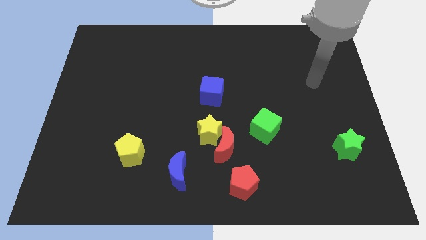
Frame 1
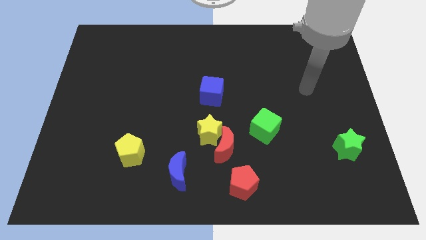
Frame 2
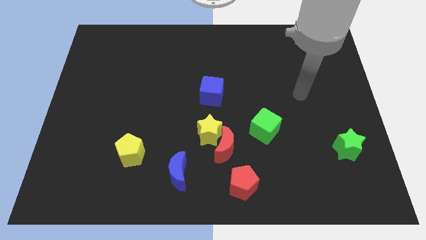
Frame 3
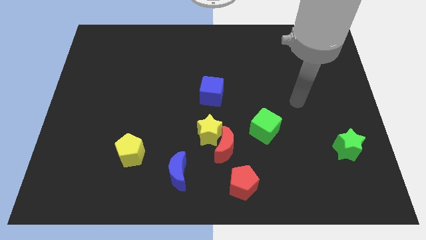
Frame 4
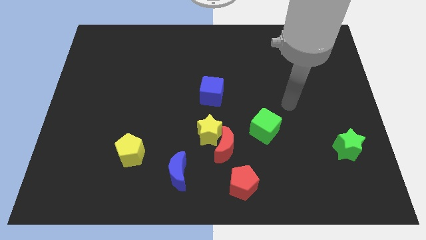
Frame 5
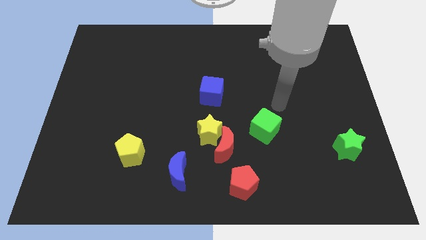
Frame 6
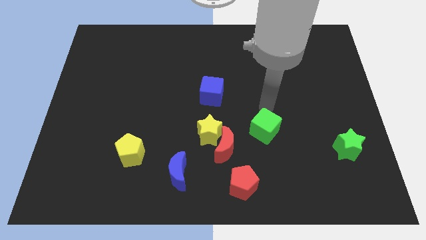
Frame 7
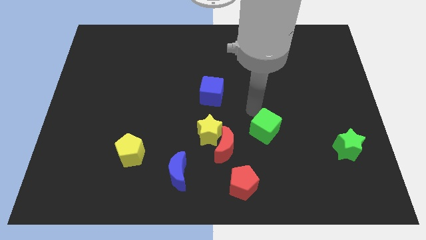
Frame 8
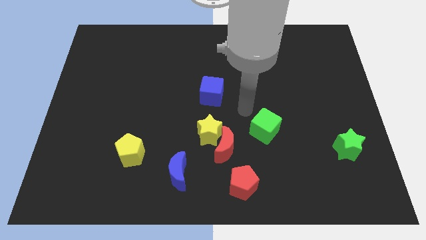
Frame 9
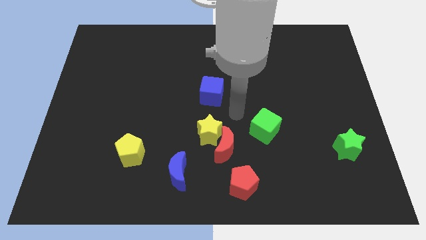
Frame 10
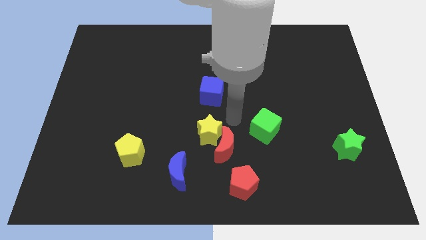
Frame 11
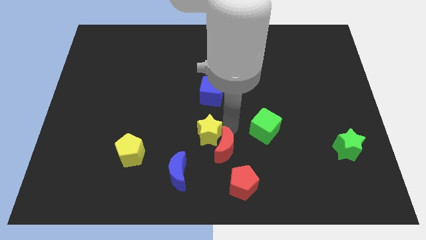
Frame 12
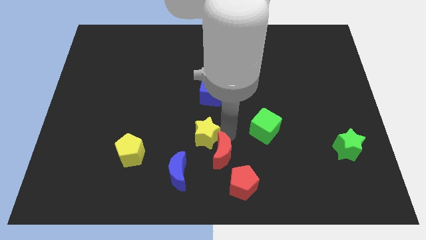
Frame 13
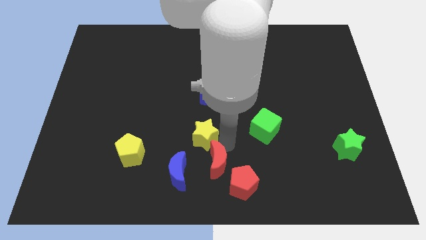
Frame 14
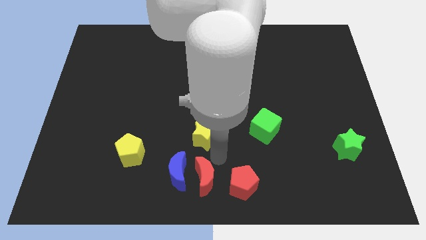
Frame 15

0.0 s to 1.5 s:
separate the yellow star from the red moon

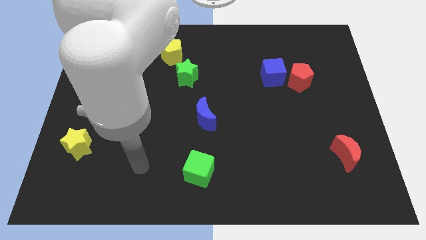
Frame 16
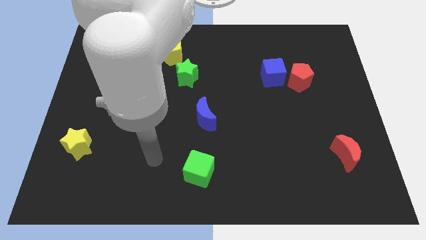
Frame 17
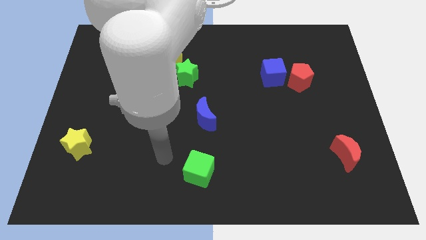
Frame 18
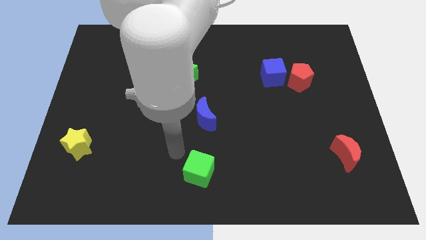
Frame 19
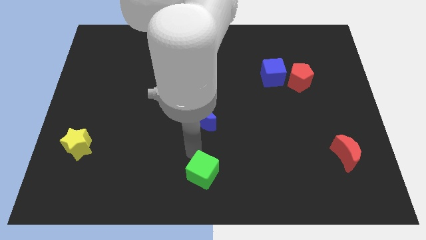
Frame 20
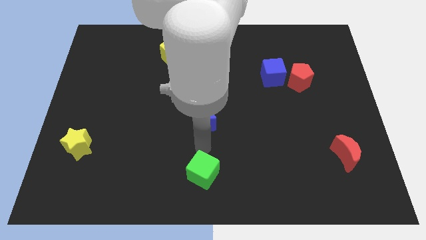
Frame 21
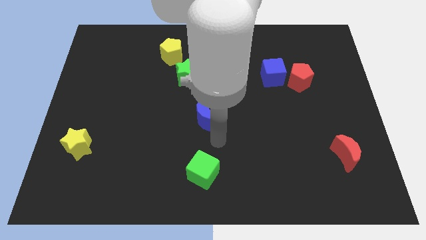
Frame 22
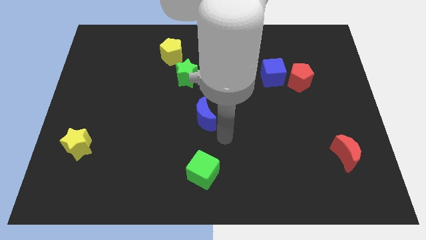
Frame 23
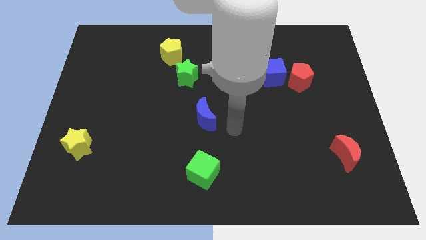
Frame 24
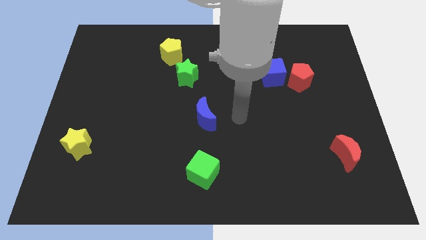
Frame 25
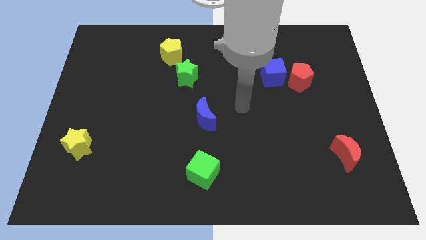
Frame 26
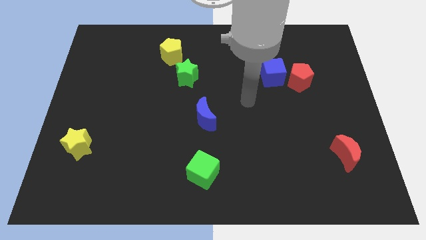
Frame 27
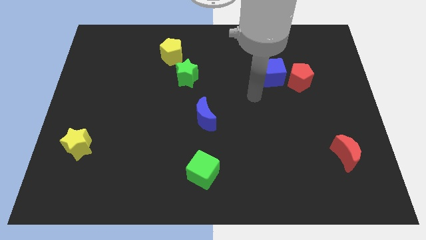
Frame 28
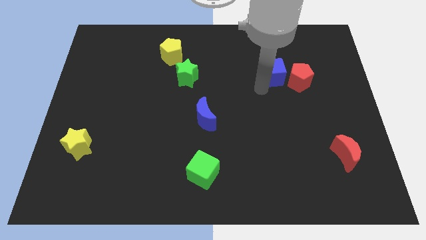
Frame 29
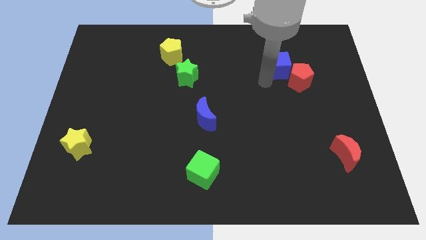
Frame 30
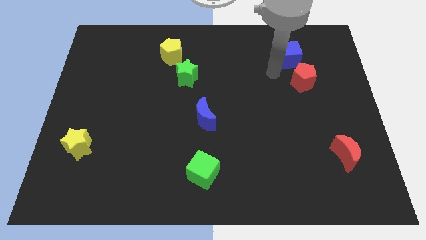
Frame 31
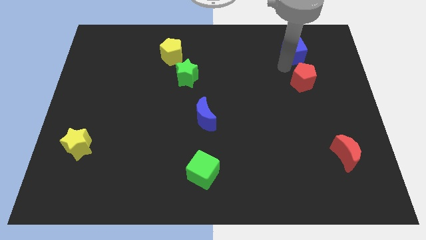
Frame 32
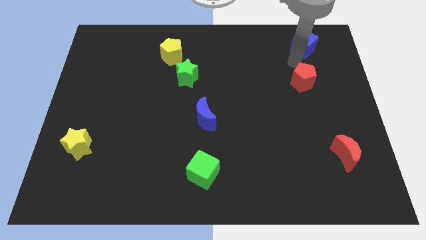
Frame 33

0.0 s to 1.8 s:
pull the red pentagon apart from the blue cube

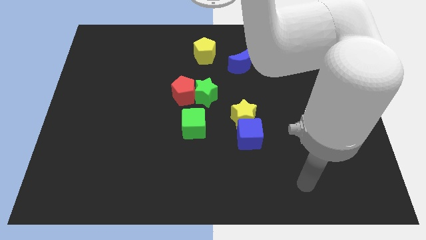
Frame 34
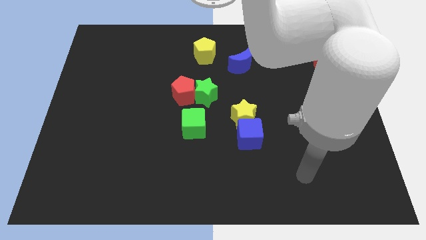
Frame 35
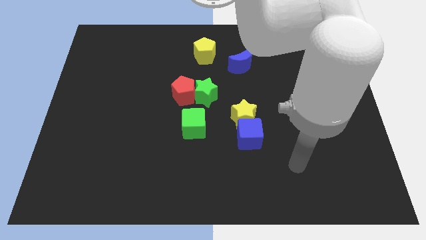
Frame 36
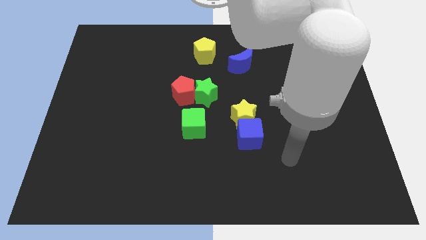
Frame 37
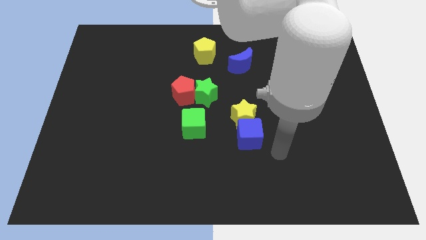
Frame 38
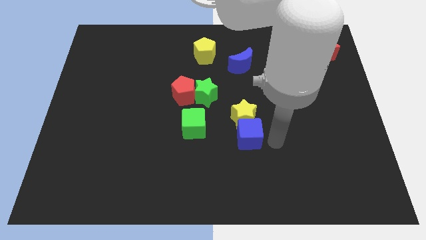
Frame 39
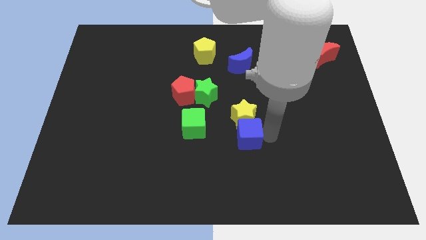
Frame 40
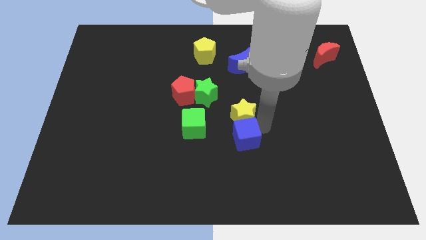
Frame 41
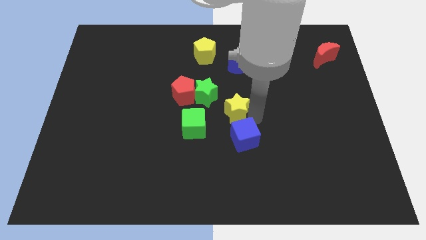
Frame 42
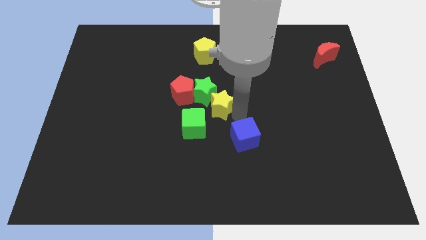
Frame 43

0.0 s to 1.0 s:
pull the blue cube apart from the yellow star

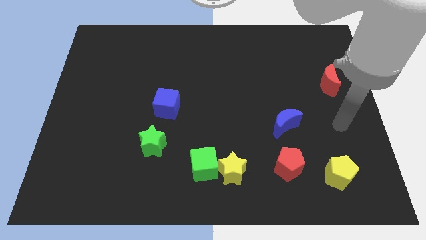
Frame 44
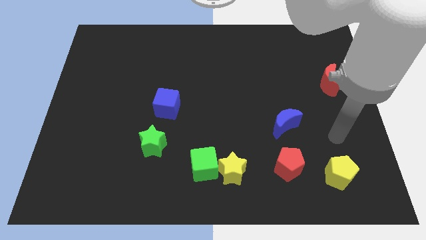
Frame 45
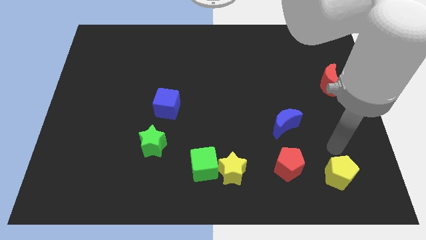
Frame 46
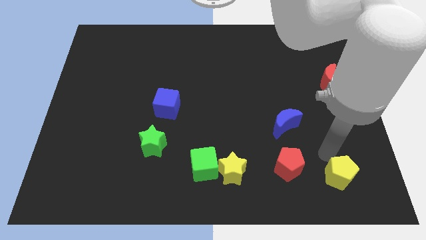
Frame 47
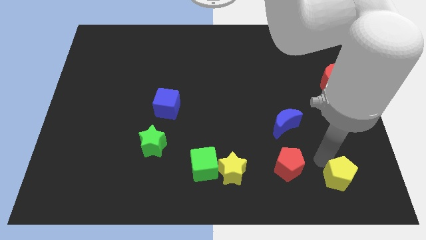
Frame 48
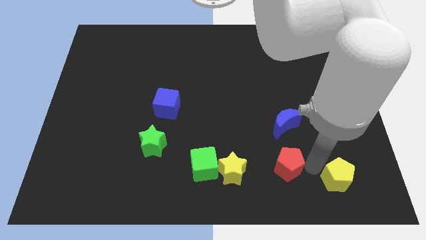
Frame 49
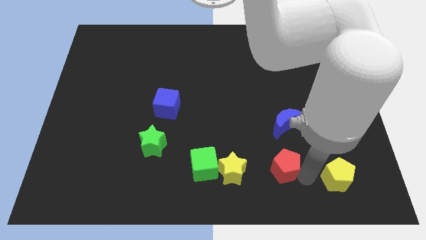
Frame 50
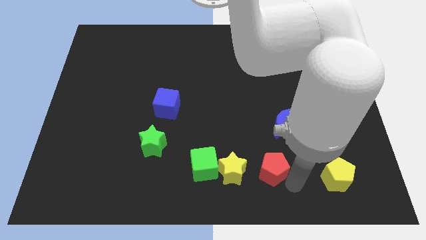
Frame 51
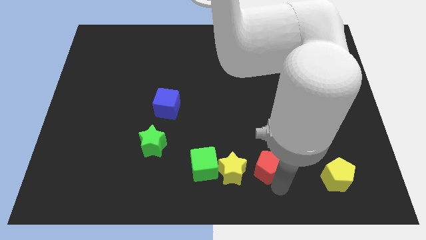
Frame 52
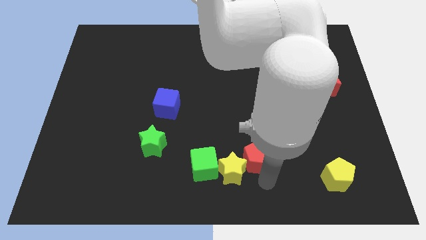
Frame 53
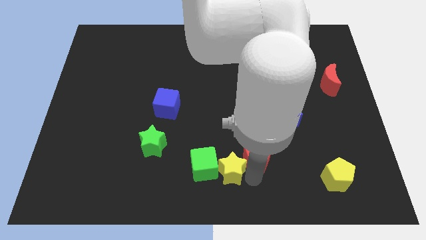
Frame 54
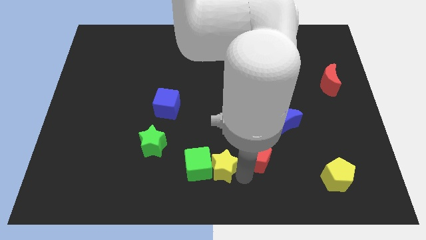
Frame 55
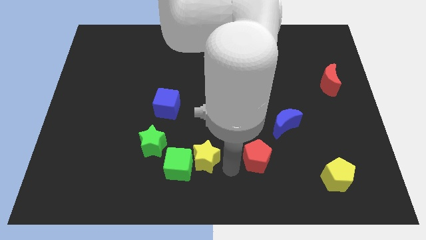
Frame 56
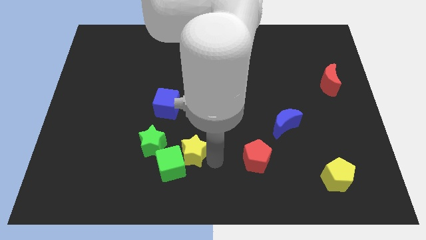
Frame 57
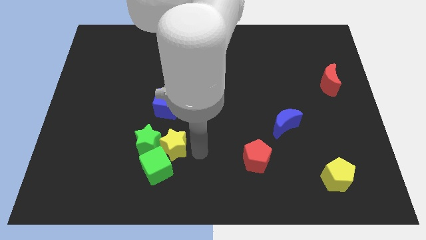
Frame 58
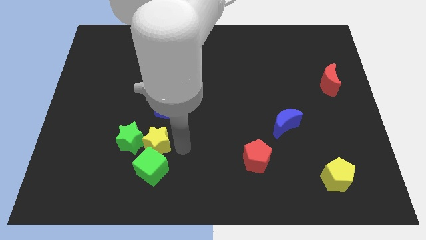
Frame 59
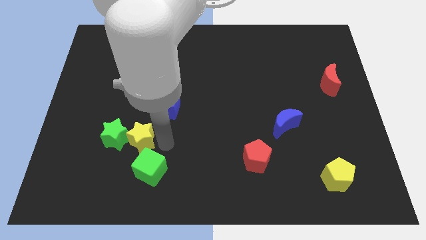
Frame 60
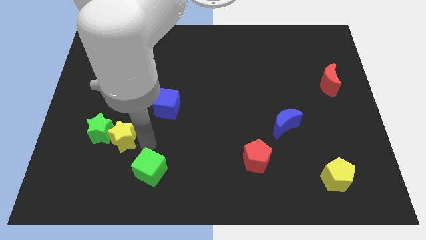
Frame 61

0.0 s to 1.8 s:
pull the green cube apart from the yellow star

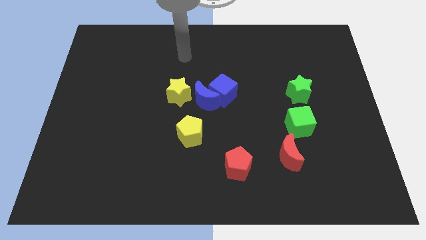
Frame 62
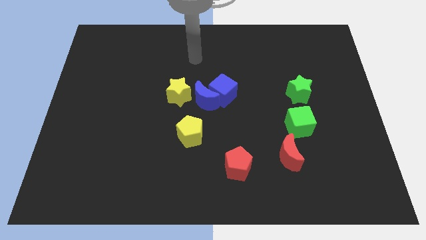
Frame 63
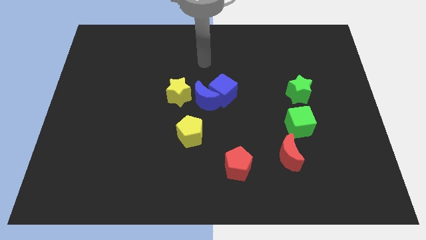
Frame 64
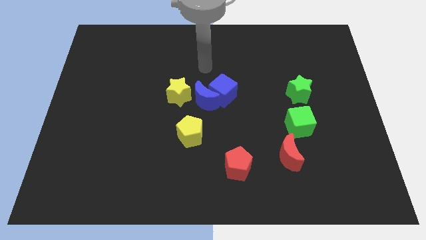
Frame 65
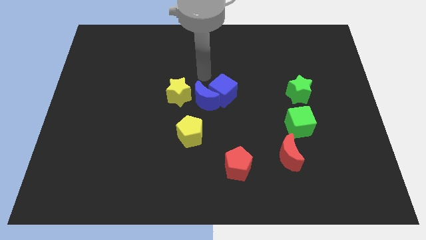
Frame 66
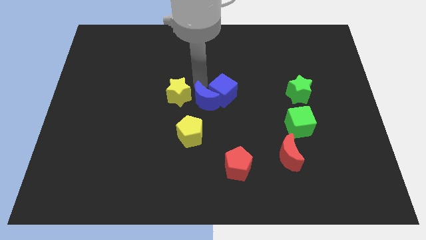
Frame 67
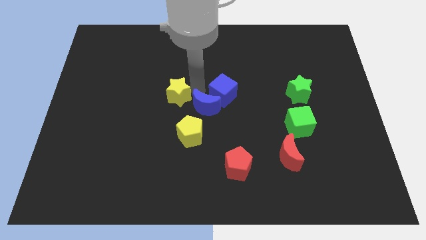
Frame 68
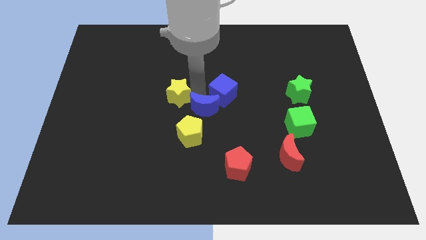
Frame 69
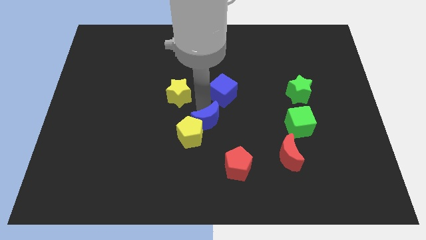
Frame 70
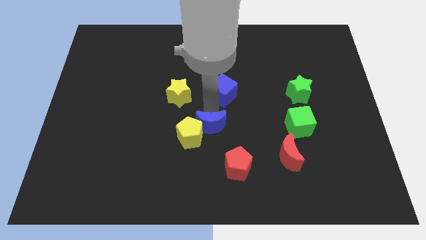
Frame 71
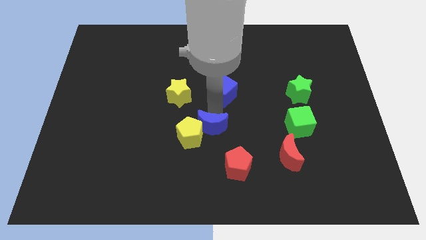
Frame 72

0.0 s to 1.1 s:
move the blue cube away from the blue moon

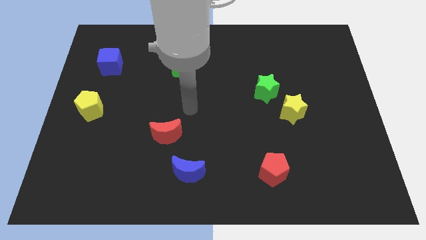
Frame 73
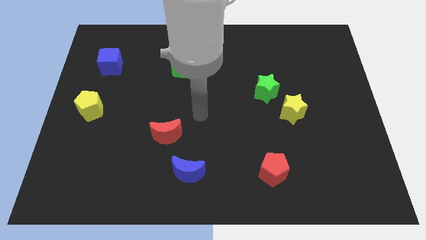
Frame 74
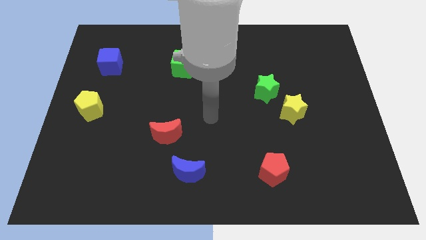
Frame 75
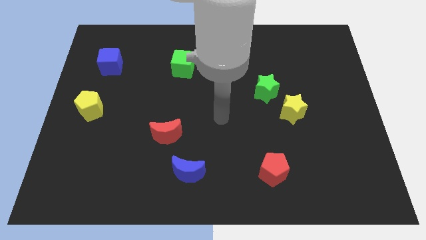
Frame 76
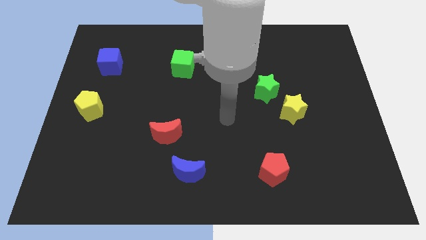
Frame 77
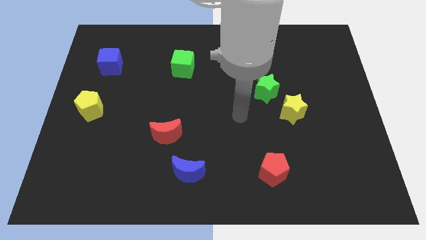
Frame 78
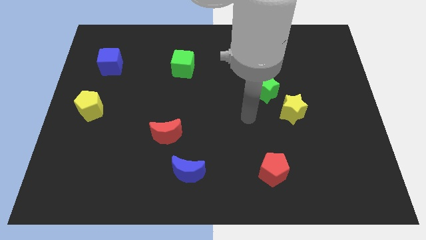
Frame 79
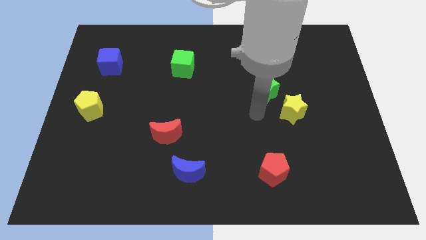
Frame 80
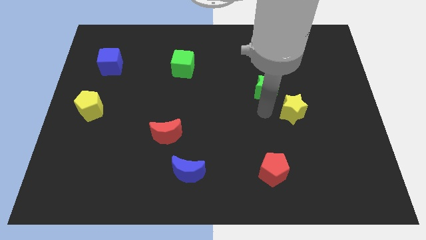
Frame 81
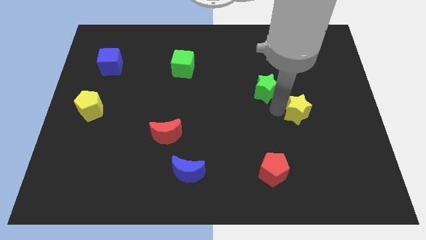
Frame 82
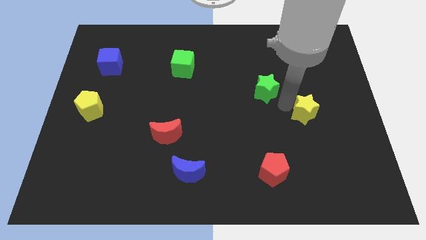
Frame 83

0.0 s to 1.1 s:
pull the green star apart from the yellow star

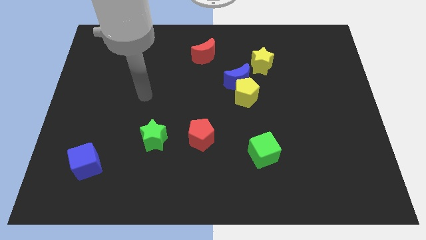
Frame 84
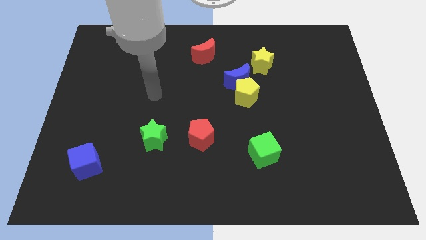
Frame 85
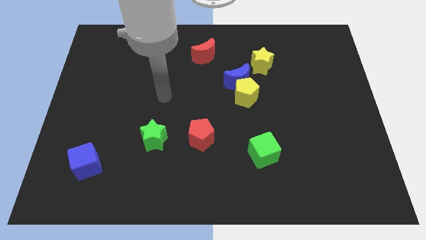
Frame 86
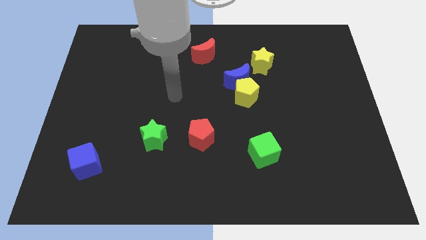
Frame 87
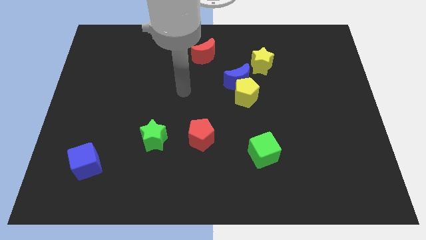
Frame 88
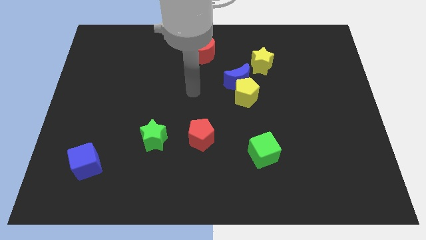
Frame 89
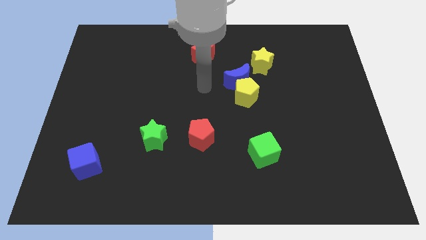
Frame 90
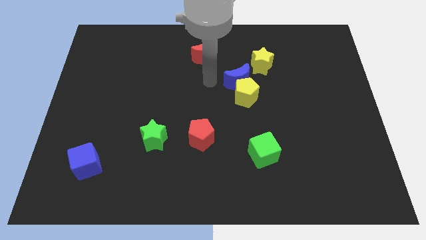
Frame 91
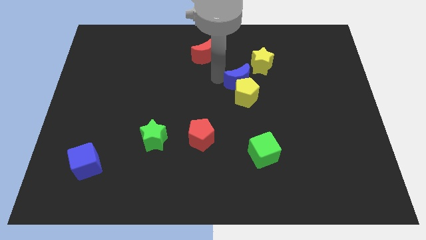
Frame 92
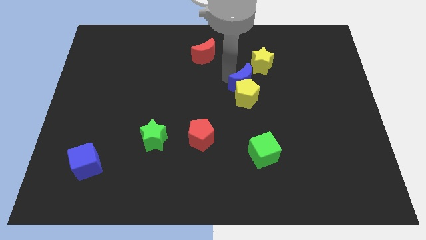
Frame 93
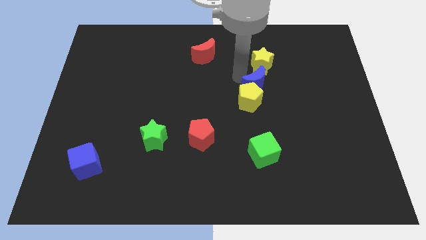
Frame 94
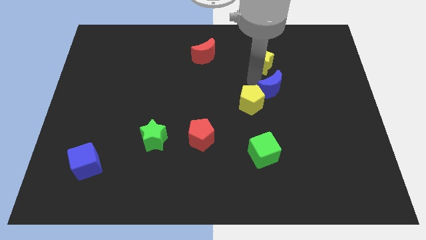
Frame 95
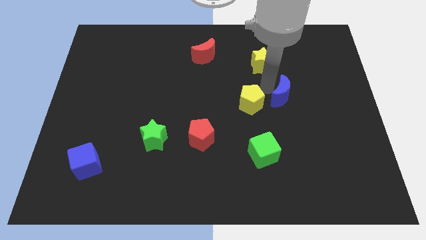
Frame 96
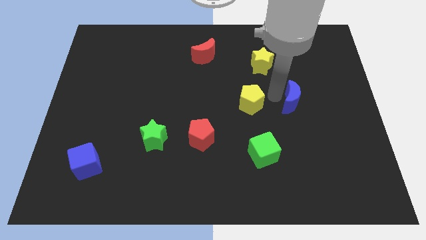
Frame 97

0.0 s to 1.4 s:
move the yellow pentagon away from the blue moon
